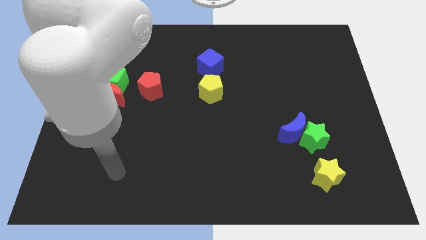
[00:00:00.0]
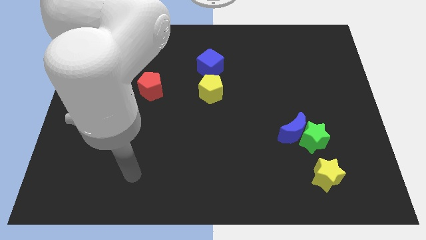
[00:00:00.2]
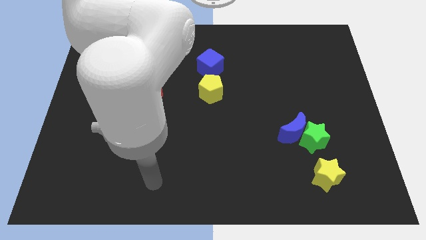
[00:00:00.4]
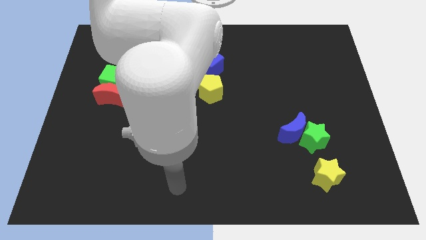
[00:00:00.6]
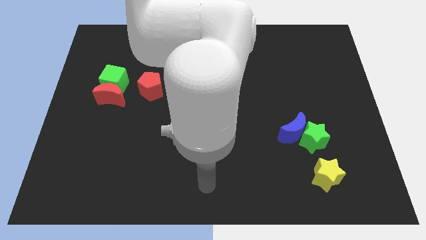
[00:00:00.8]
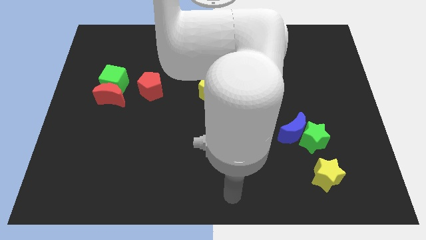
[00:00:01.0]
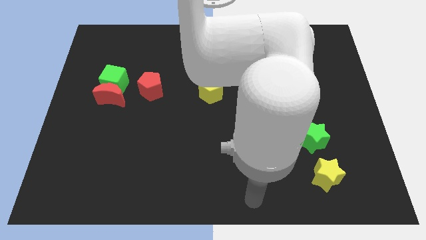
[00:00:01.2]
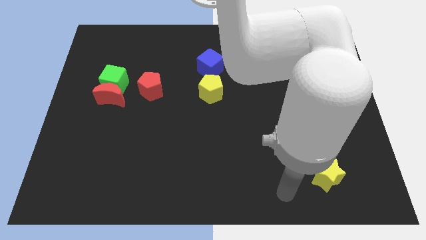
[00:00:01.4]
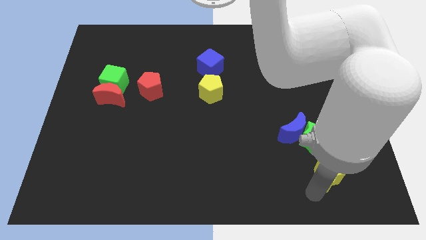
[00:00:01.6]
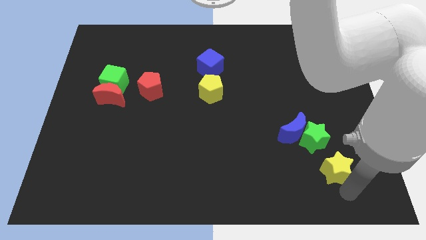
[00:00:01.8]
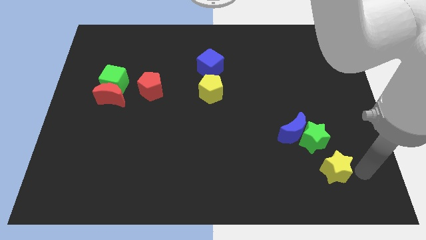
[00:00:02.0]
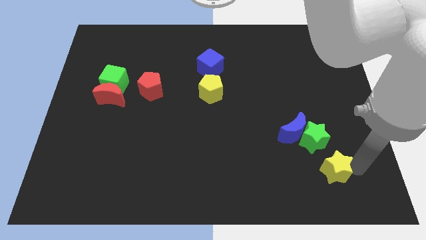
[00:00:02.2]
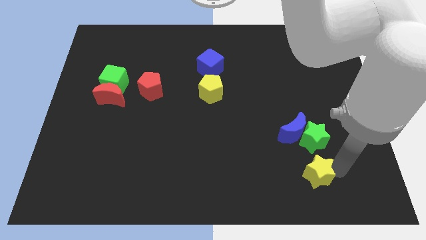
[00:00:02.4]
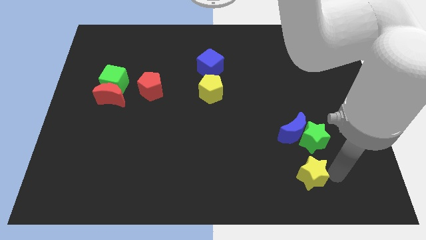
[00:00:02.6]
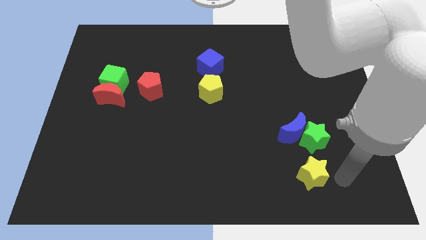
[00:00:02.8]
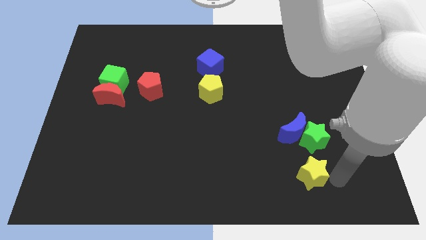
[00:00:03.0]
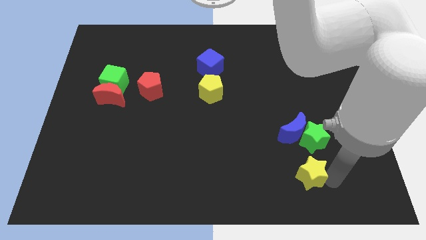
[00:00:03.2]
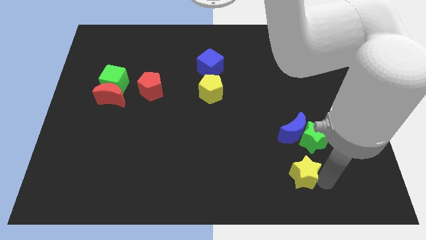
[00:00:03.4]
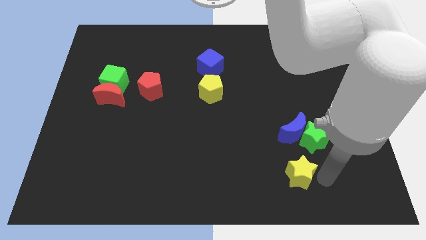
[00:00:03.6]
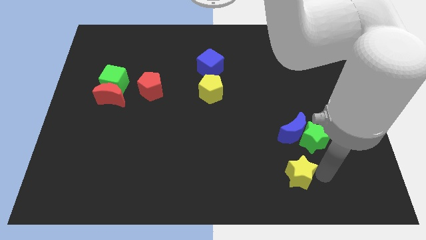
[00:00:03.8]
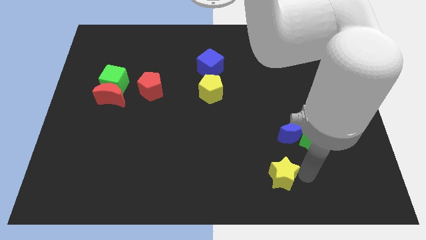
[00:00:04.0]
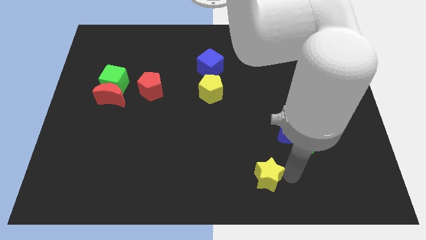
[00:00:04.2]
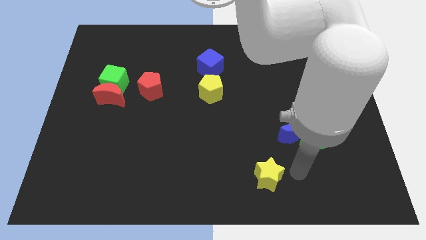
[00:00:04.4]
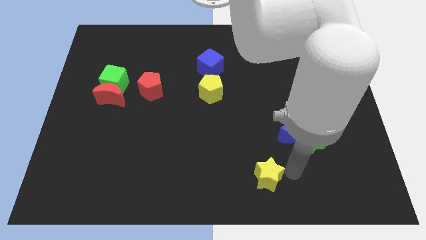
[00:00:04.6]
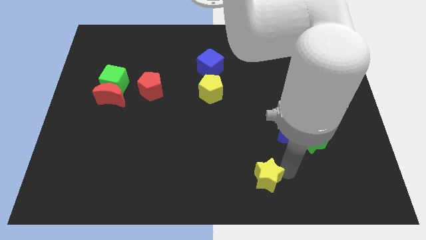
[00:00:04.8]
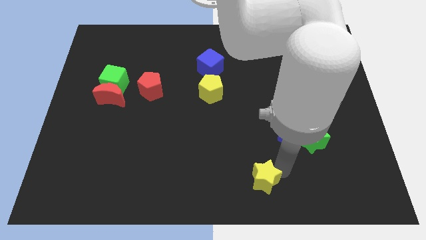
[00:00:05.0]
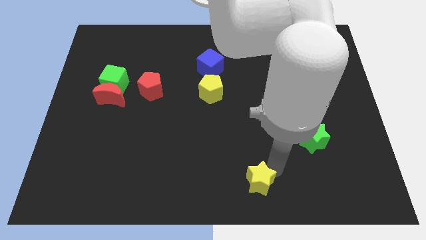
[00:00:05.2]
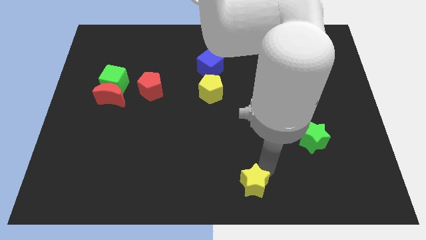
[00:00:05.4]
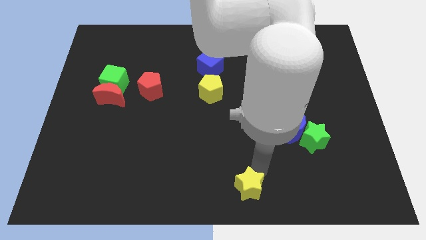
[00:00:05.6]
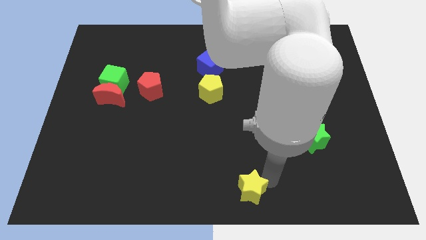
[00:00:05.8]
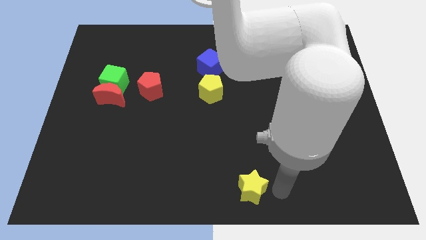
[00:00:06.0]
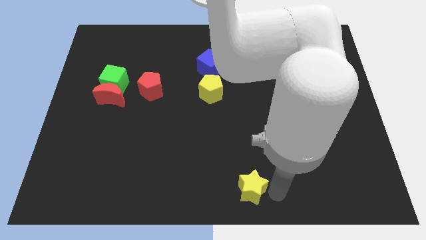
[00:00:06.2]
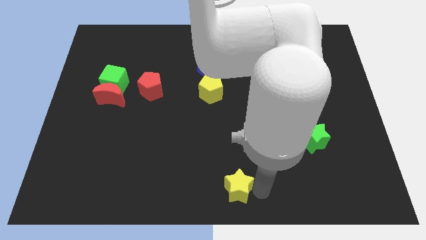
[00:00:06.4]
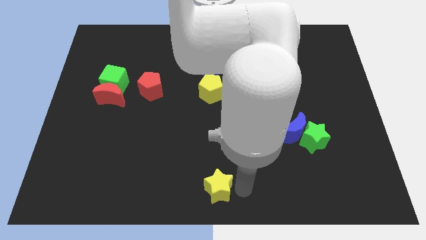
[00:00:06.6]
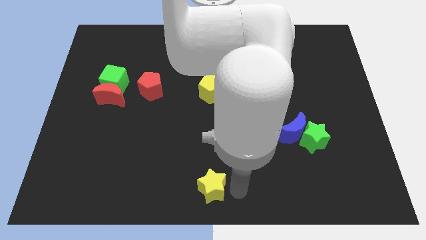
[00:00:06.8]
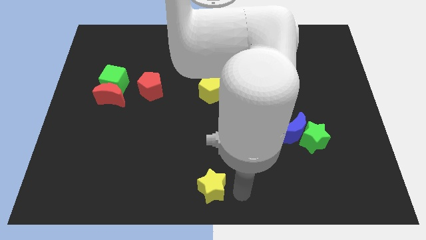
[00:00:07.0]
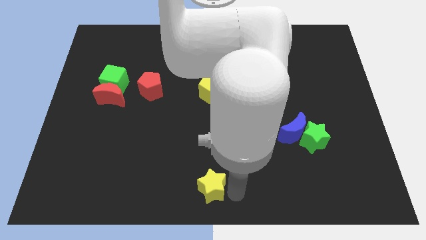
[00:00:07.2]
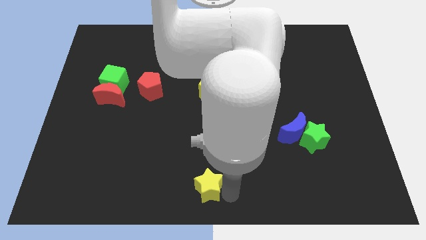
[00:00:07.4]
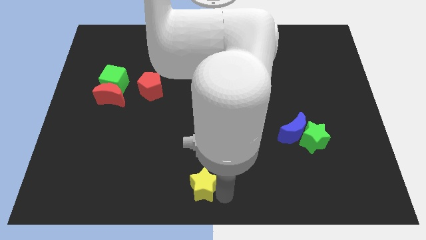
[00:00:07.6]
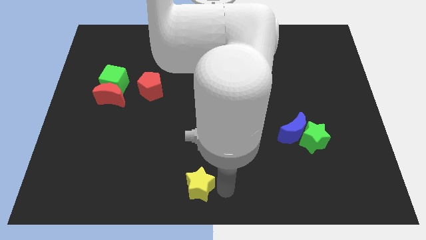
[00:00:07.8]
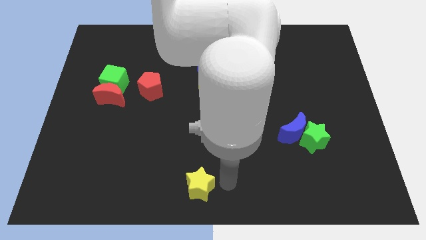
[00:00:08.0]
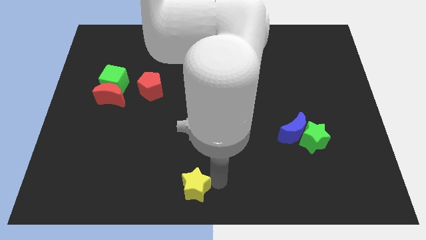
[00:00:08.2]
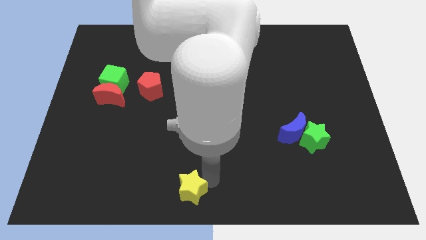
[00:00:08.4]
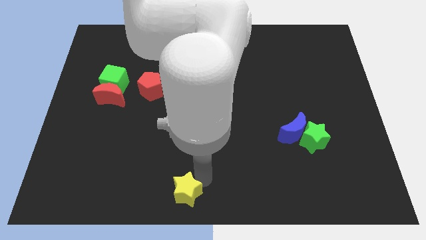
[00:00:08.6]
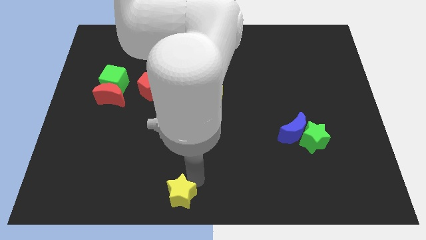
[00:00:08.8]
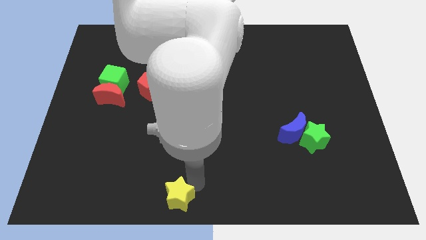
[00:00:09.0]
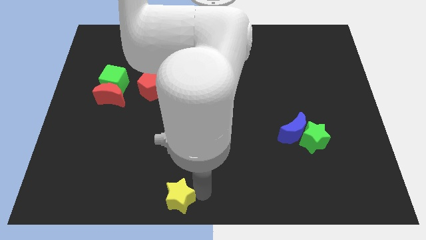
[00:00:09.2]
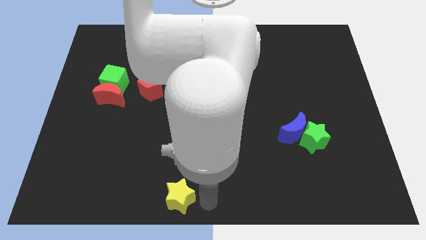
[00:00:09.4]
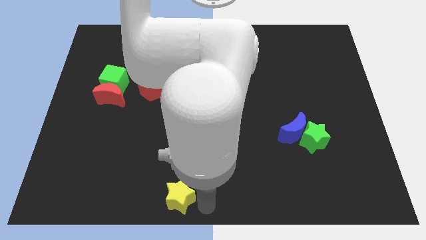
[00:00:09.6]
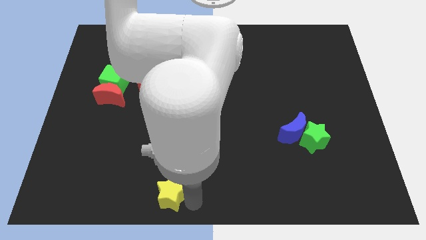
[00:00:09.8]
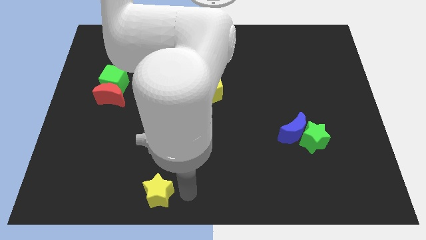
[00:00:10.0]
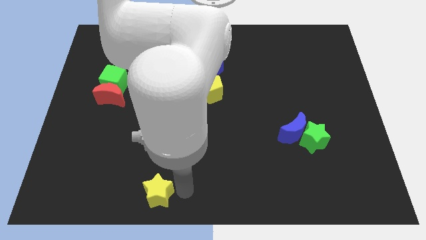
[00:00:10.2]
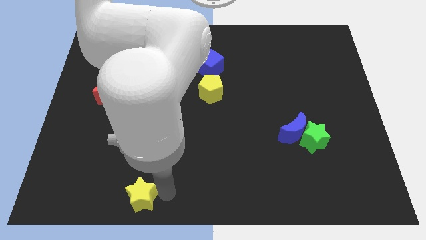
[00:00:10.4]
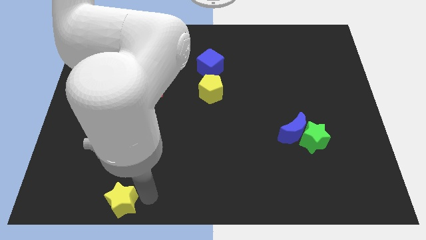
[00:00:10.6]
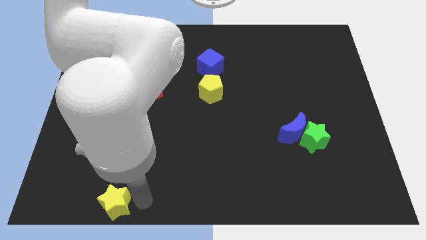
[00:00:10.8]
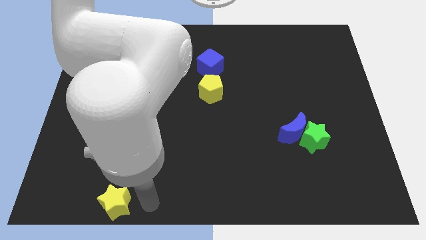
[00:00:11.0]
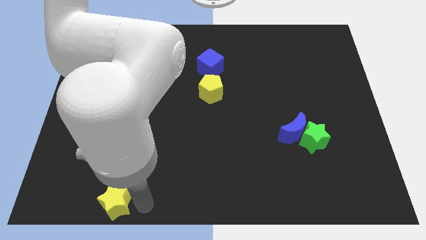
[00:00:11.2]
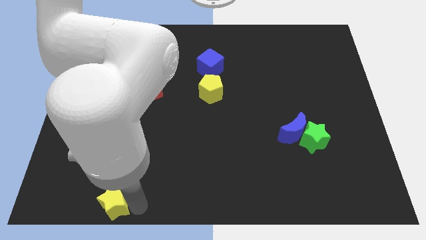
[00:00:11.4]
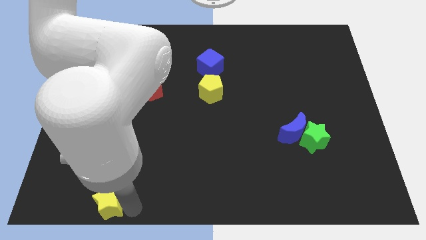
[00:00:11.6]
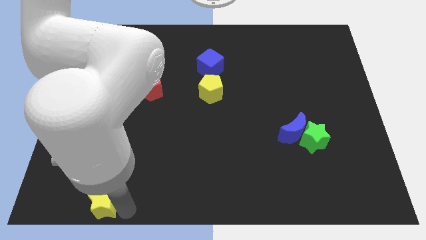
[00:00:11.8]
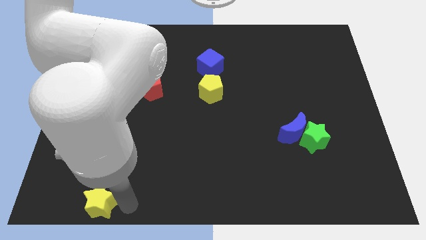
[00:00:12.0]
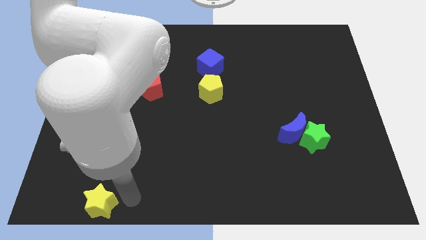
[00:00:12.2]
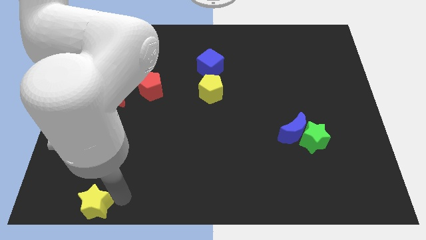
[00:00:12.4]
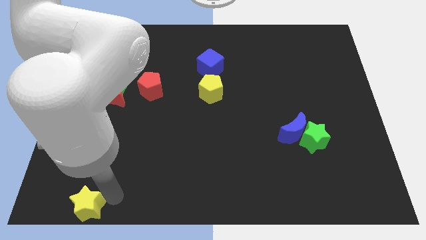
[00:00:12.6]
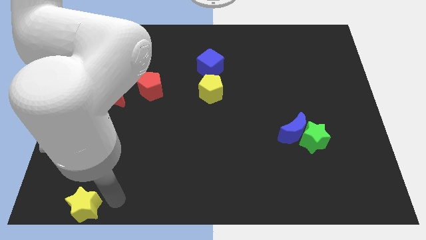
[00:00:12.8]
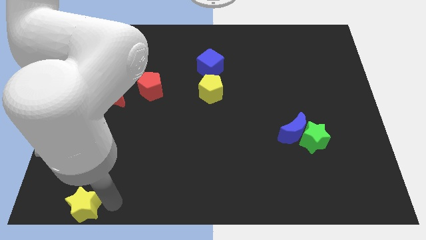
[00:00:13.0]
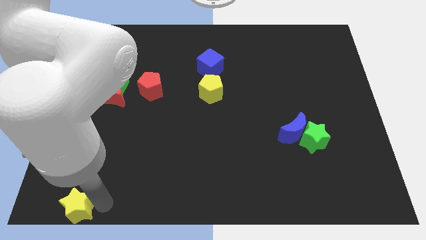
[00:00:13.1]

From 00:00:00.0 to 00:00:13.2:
move the yellow star to the bottom left of the board

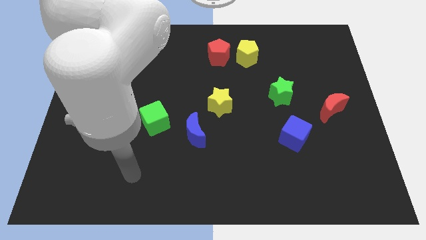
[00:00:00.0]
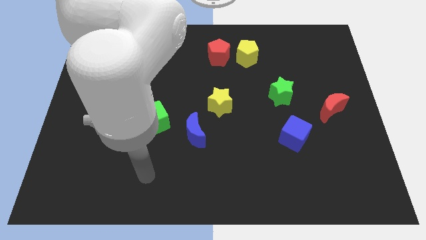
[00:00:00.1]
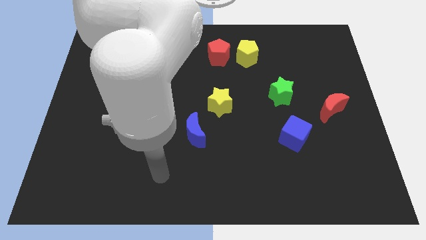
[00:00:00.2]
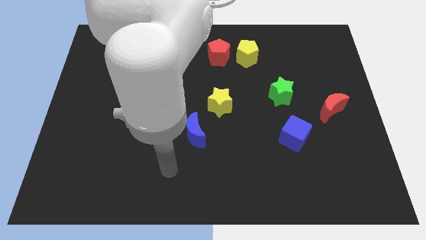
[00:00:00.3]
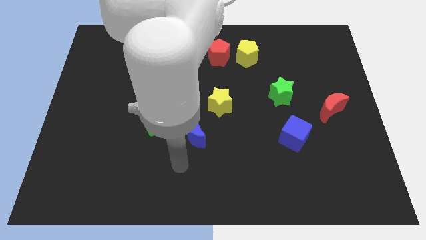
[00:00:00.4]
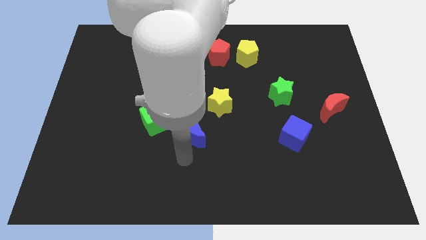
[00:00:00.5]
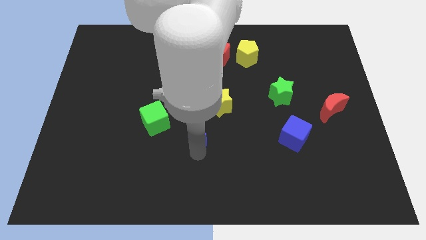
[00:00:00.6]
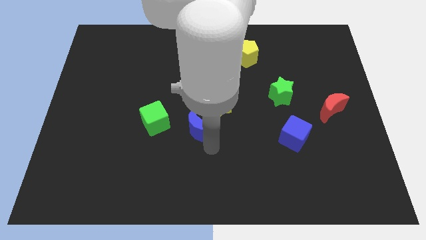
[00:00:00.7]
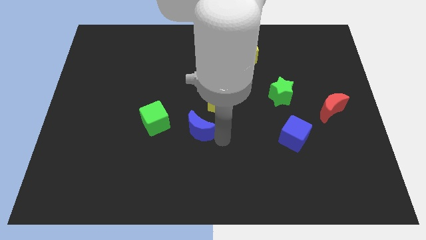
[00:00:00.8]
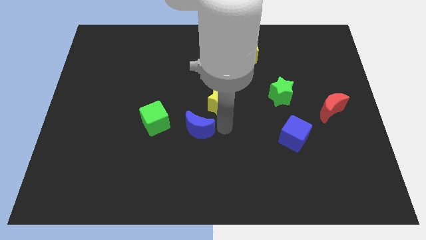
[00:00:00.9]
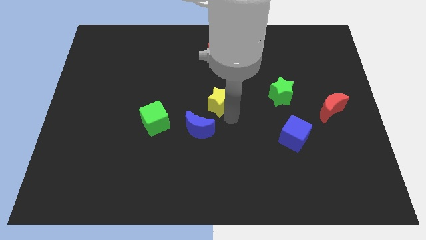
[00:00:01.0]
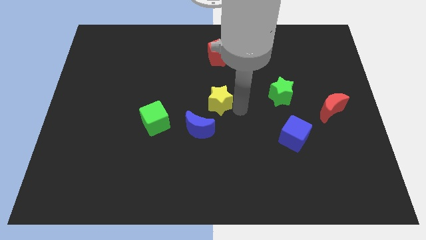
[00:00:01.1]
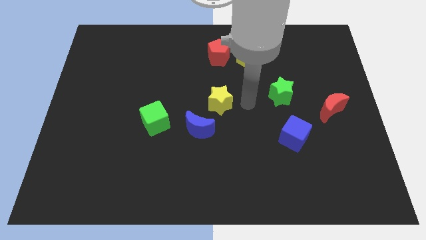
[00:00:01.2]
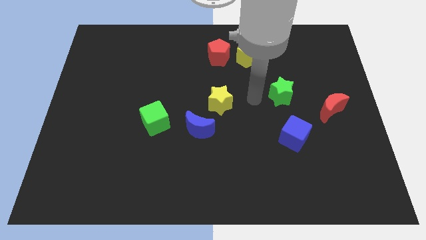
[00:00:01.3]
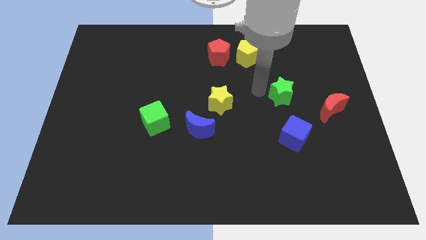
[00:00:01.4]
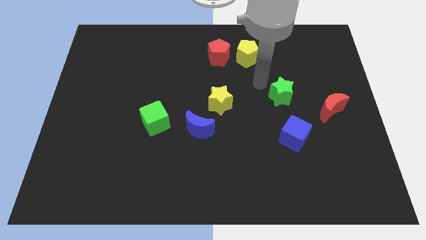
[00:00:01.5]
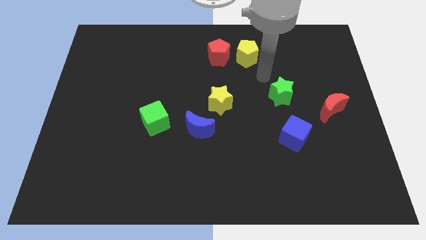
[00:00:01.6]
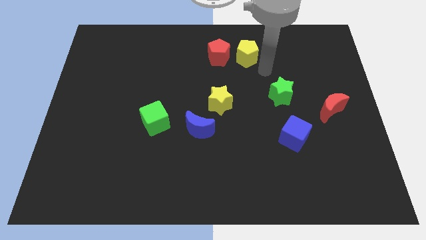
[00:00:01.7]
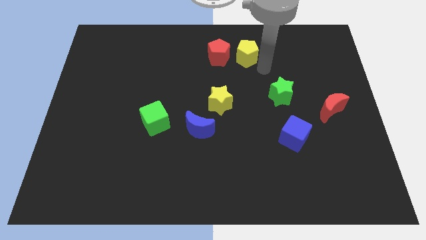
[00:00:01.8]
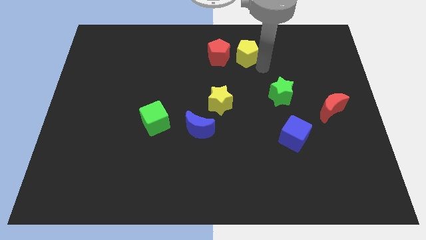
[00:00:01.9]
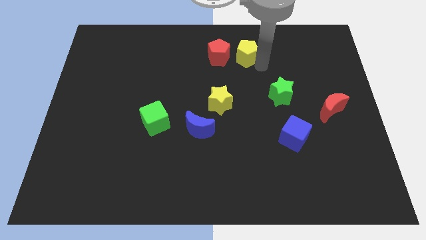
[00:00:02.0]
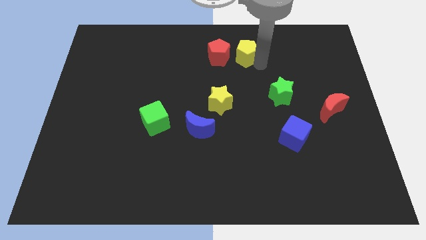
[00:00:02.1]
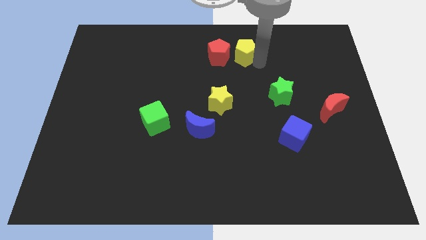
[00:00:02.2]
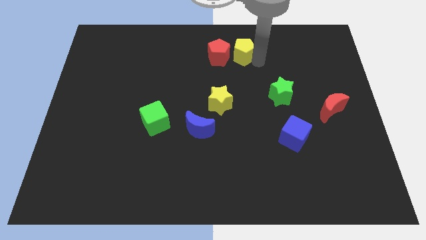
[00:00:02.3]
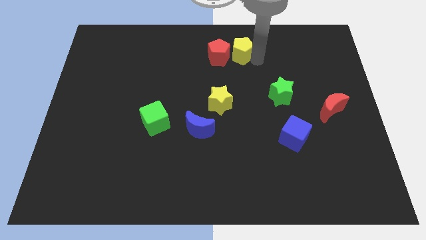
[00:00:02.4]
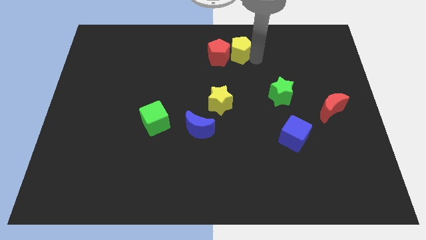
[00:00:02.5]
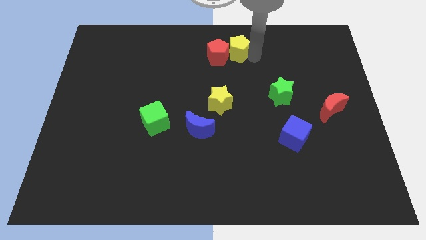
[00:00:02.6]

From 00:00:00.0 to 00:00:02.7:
move the yellow pentagon to the towards your base
